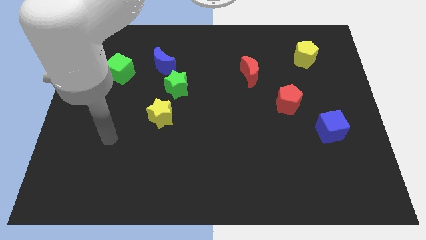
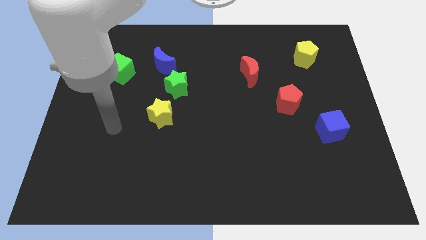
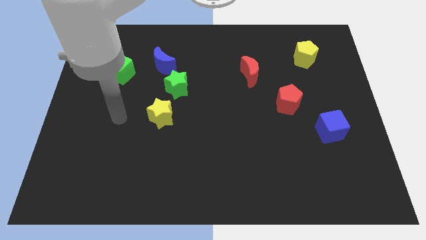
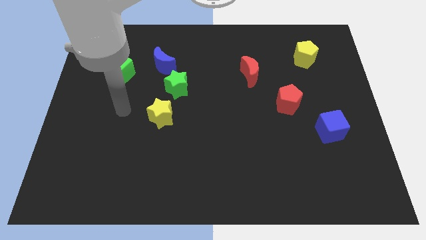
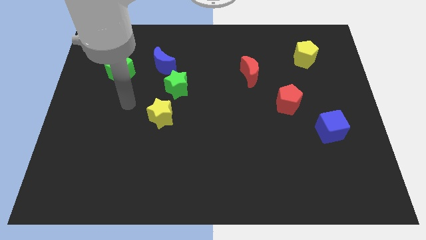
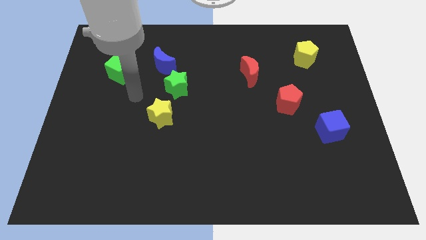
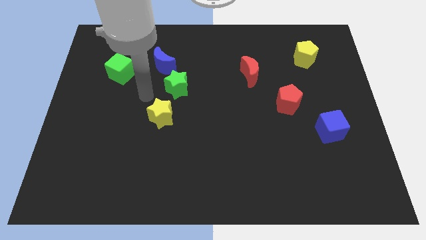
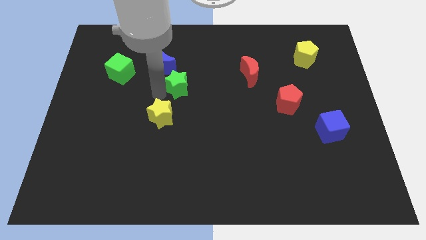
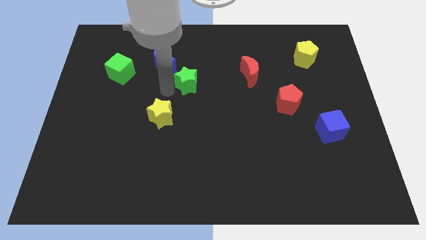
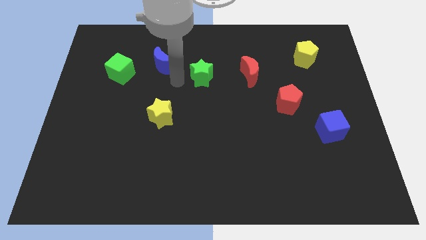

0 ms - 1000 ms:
separate the blue moon from the green star

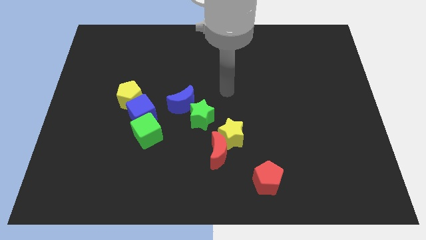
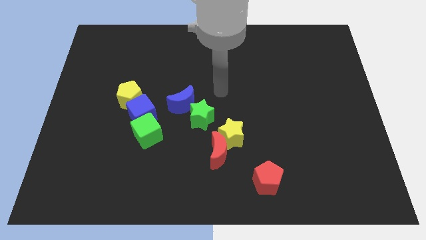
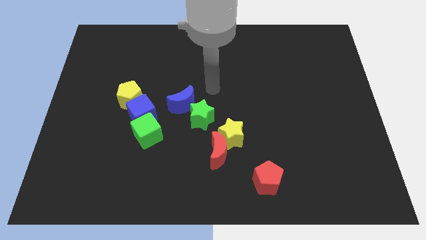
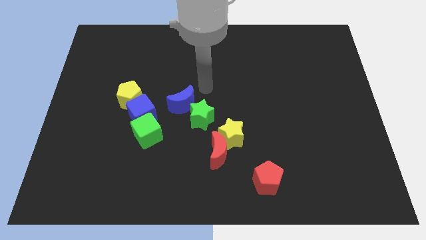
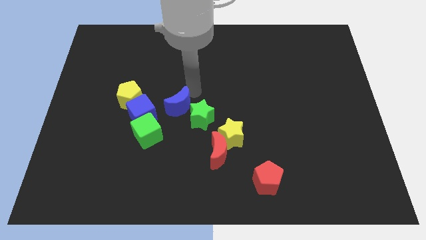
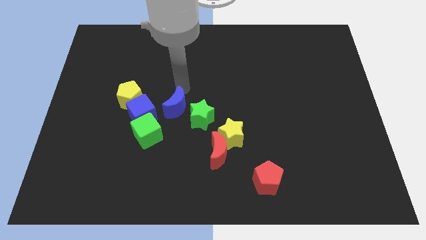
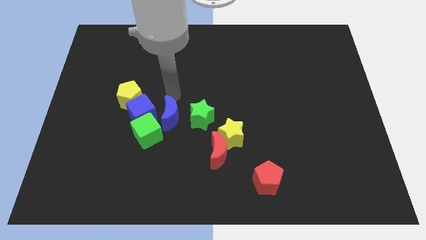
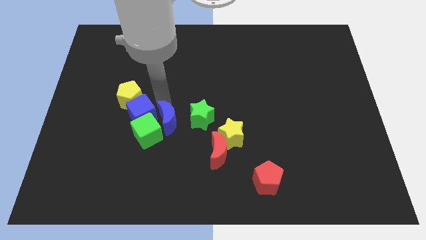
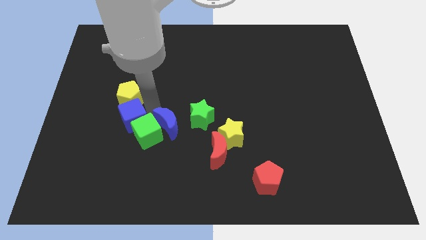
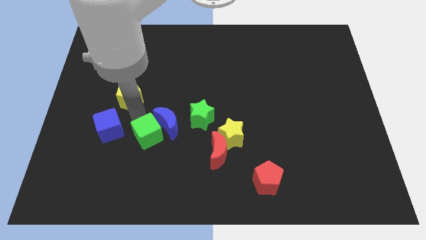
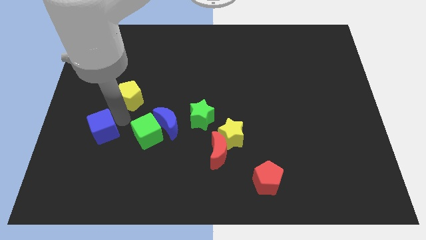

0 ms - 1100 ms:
separate the yellow pentagon from the blue cube

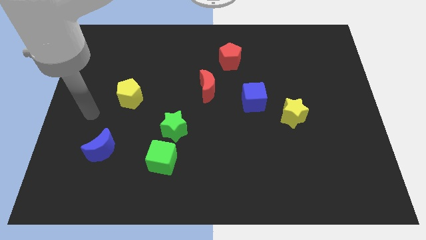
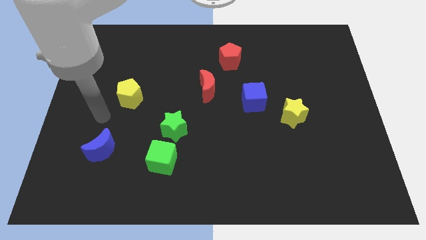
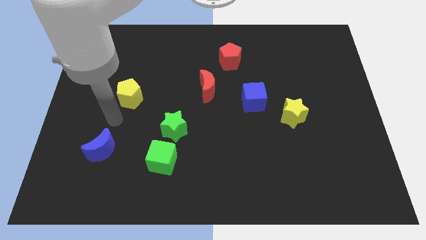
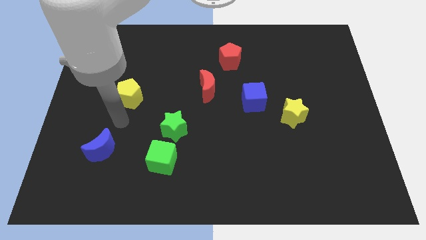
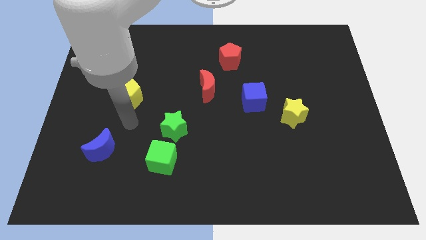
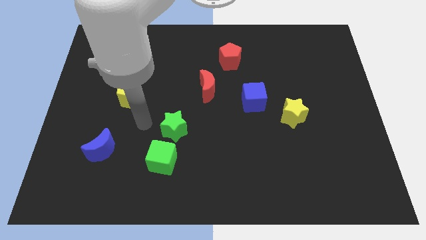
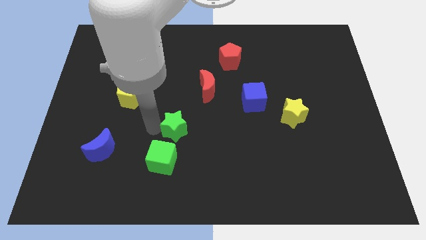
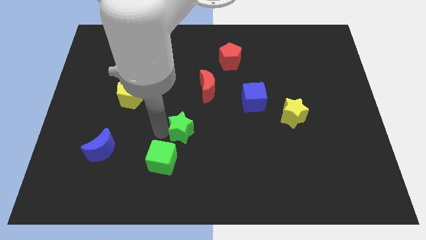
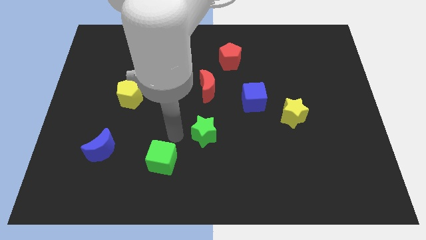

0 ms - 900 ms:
pull the green cube apart from the green star

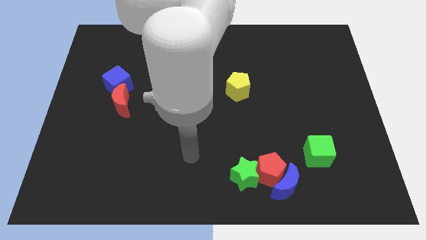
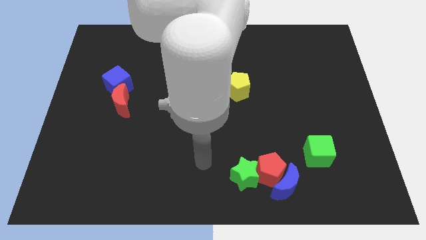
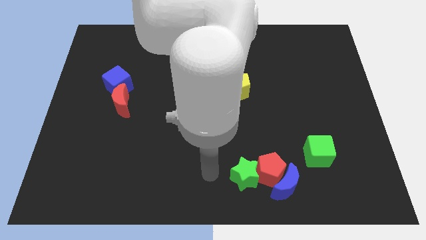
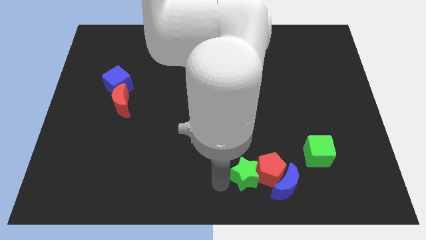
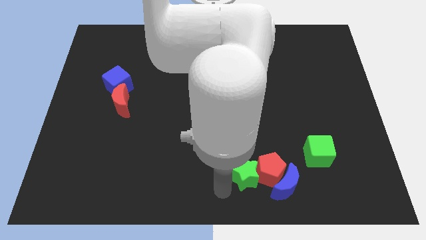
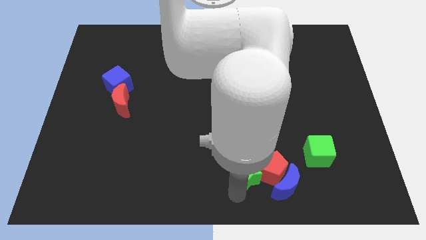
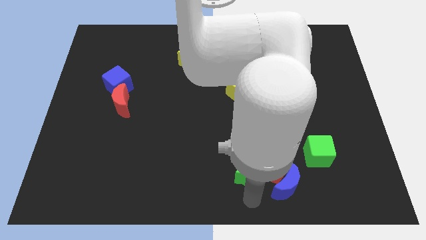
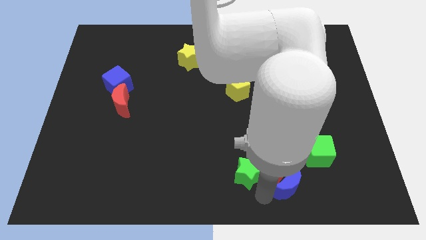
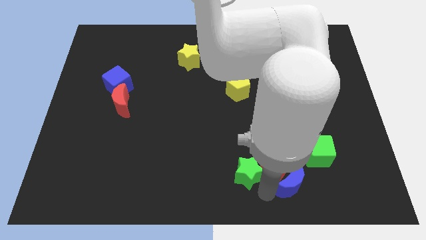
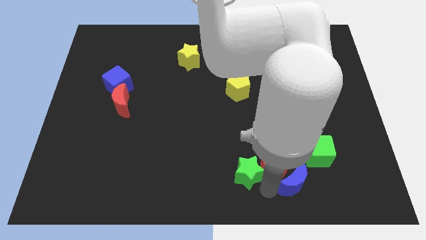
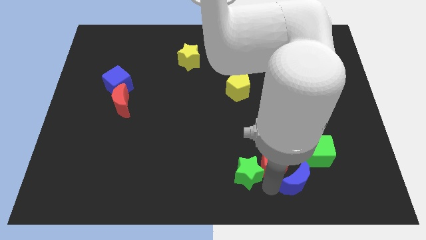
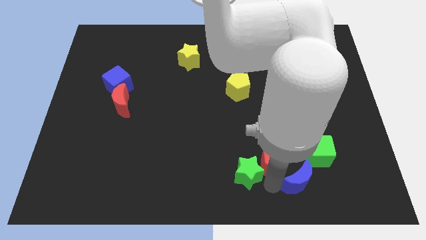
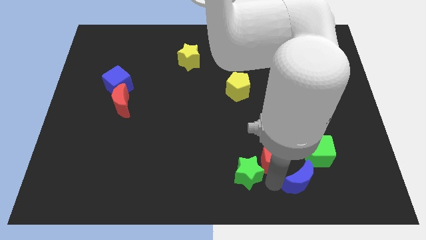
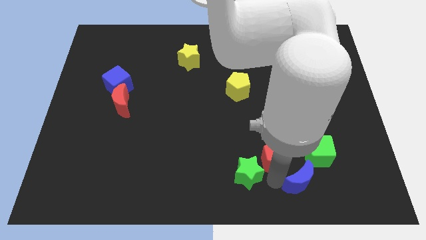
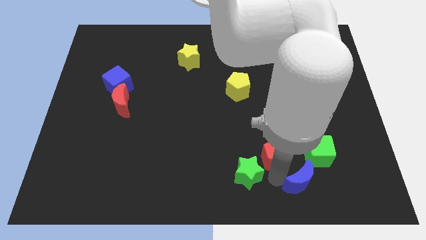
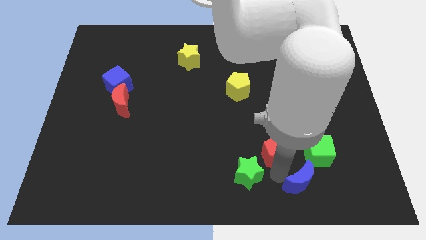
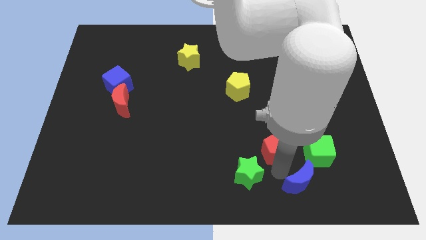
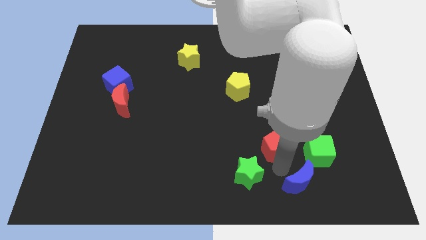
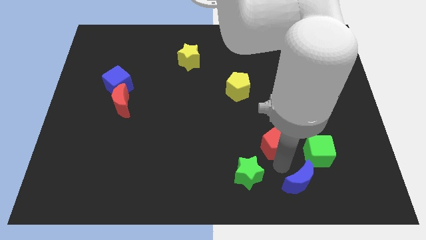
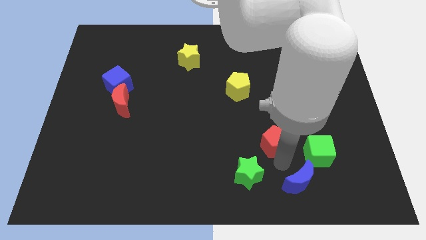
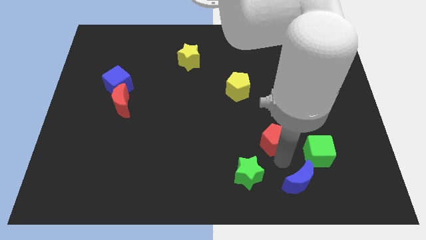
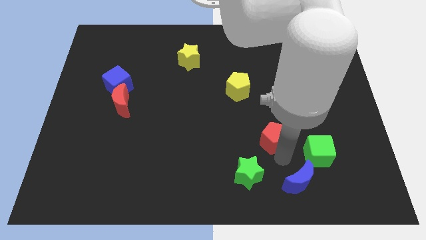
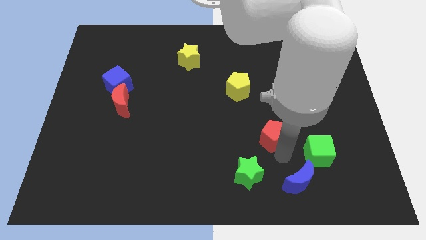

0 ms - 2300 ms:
separate the red pentagon from the blue moon and green star

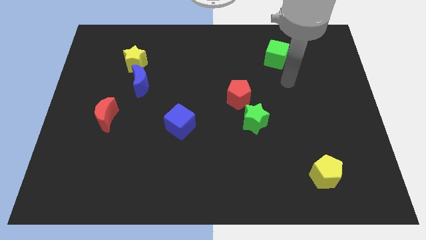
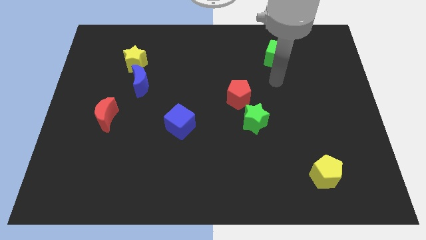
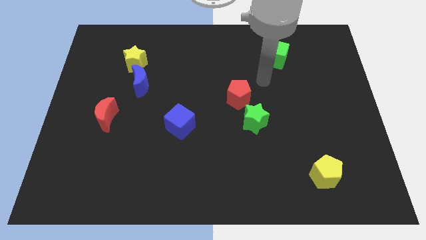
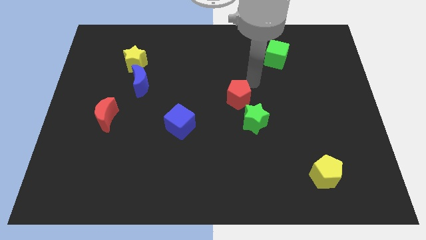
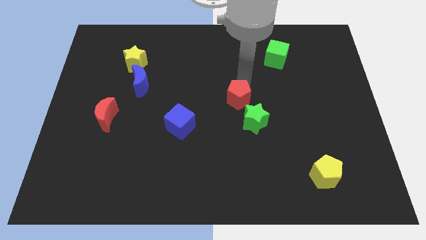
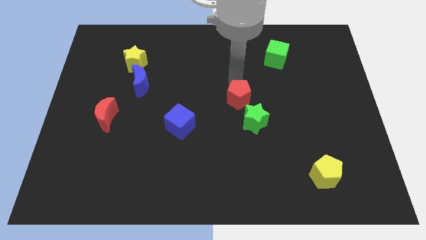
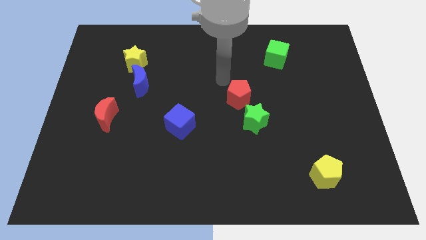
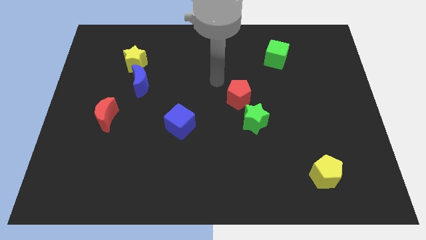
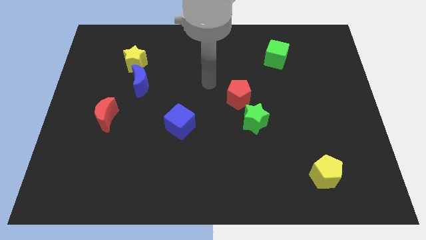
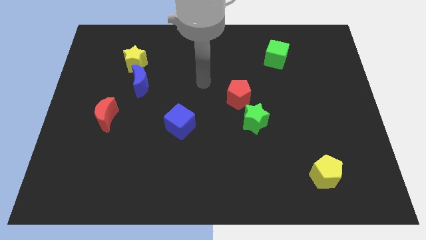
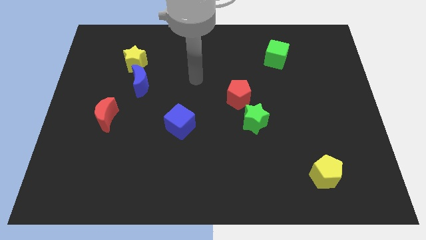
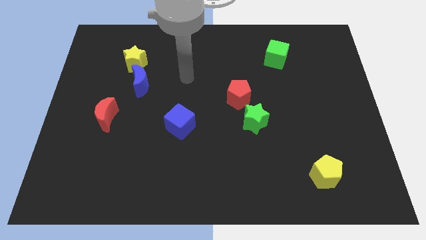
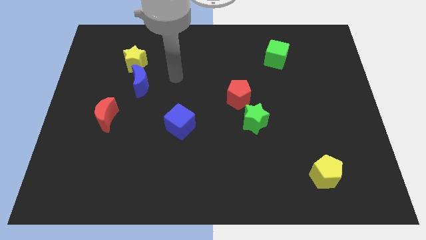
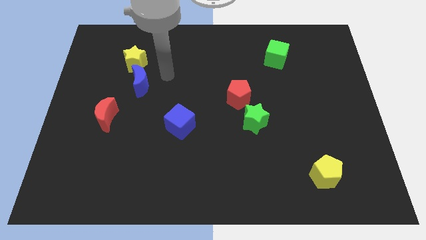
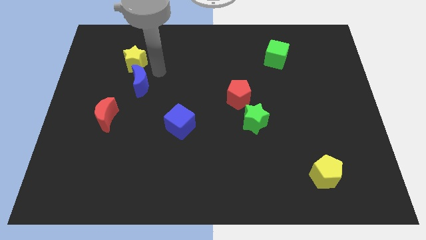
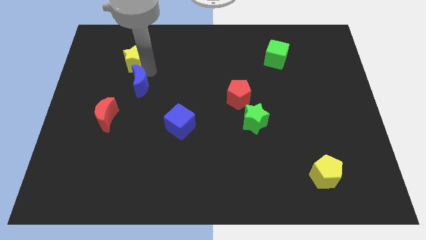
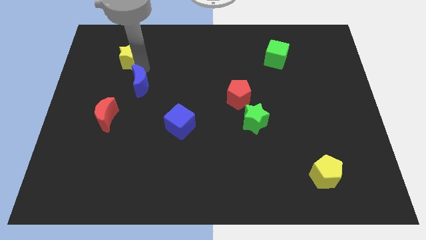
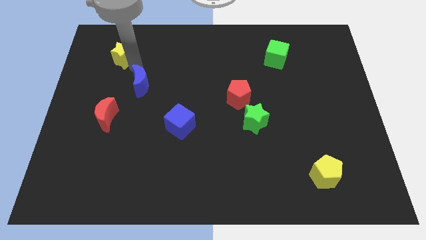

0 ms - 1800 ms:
move the blue moon away from the yellow star

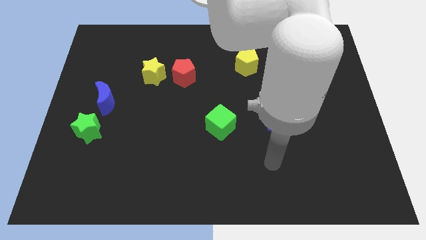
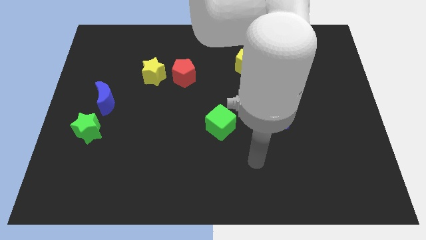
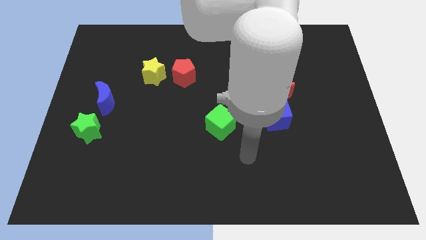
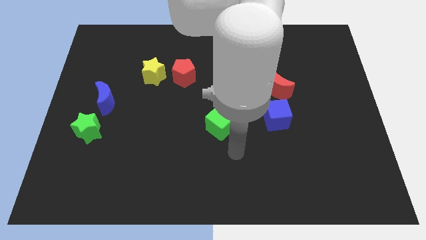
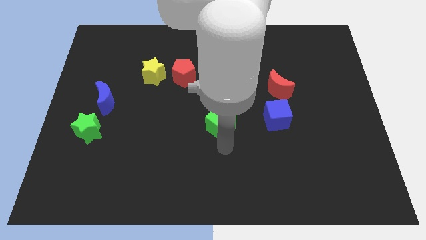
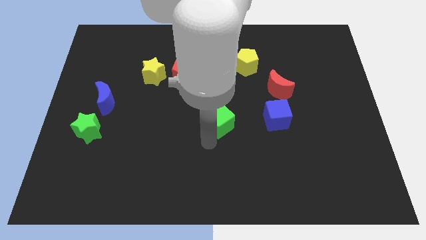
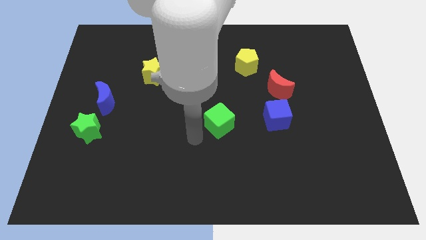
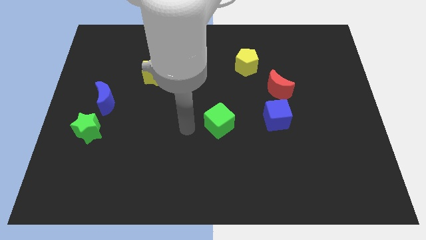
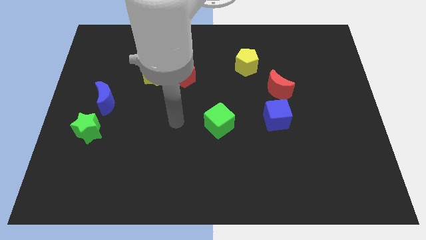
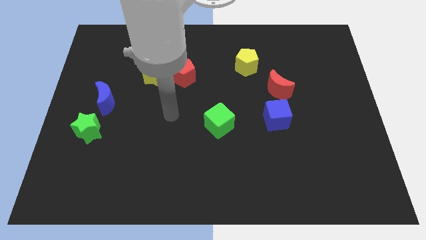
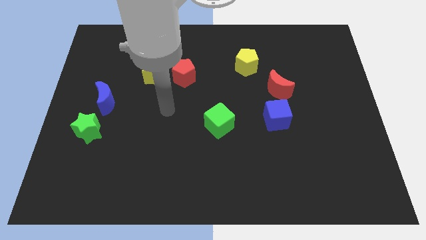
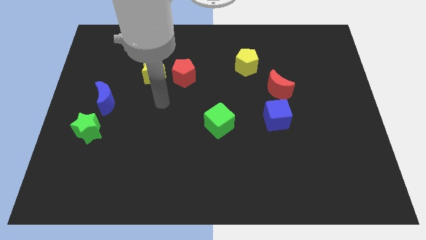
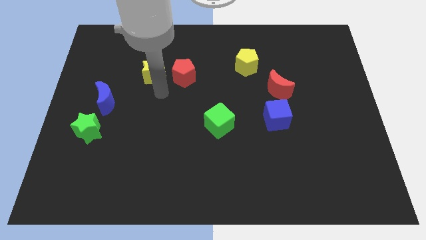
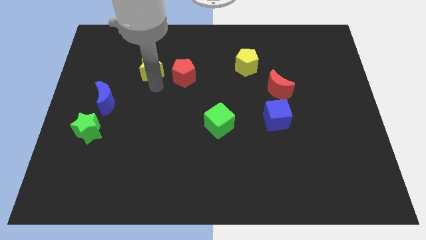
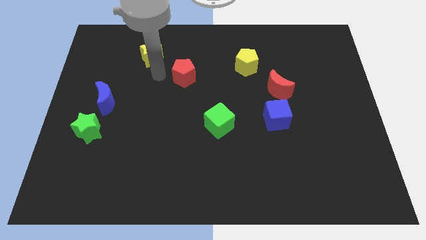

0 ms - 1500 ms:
move the red pentagon away from the yellow star

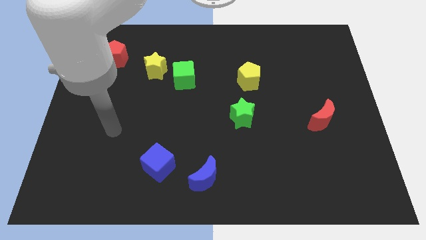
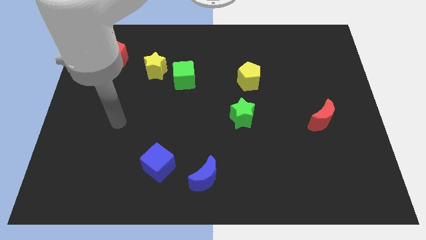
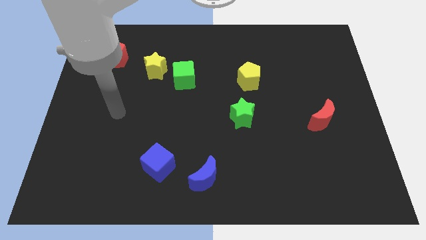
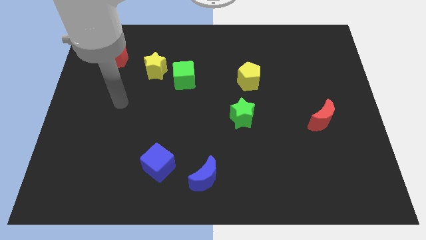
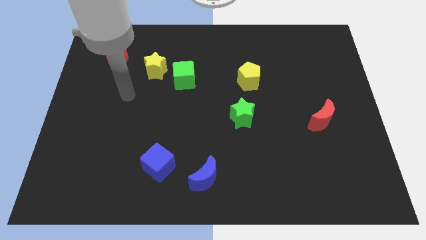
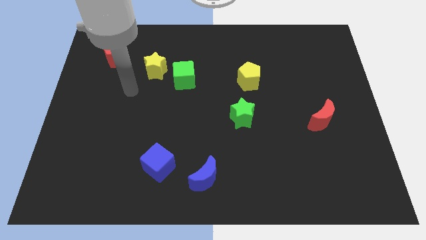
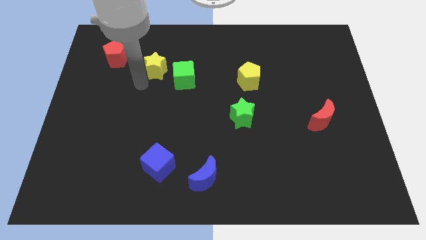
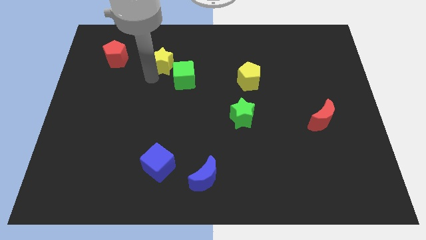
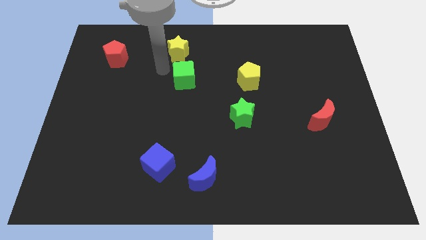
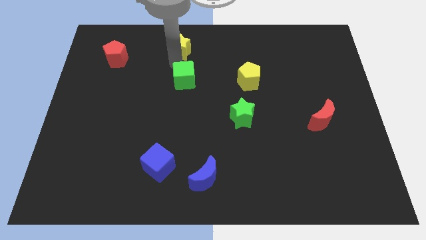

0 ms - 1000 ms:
move the green cube away from the yellow star
